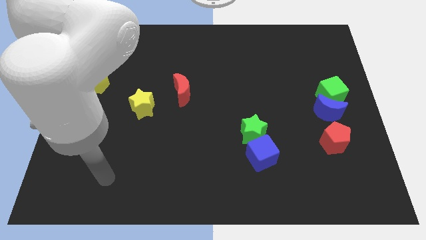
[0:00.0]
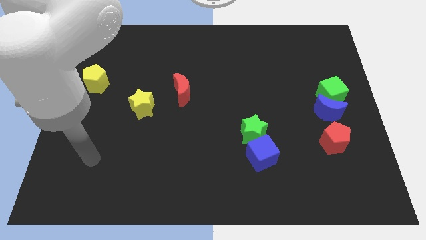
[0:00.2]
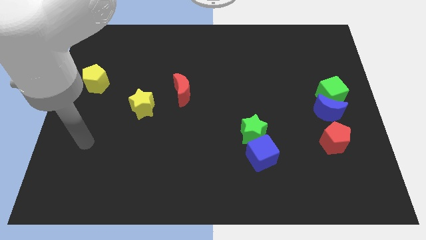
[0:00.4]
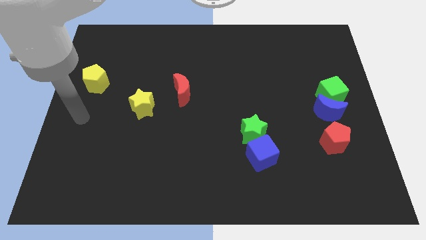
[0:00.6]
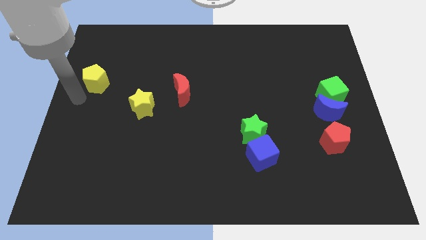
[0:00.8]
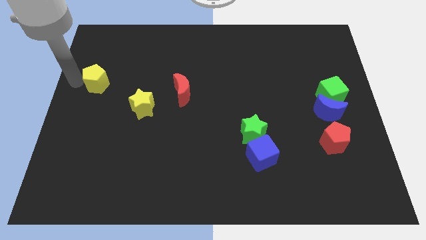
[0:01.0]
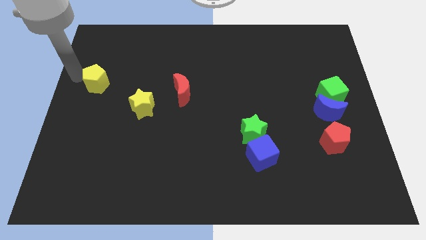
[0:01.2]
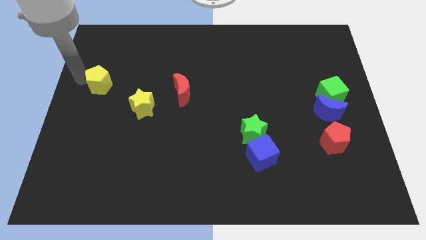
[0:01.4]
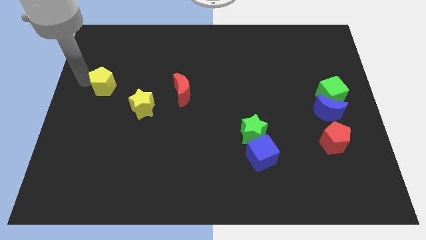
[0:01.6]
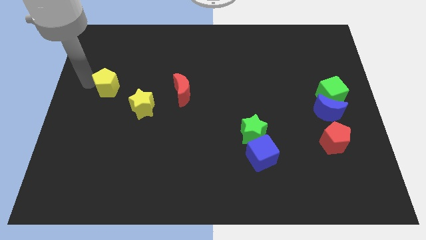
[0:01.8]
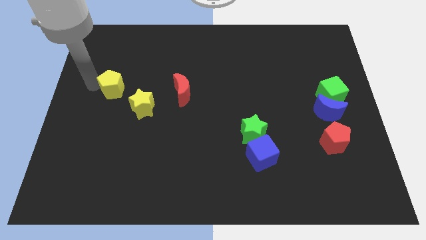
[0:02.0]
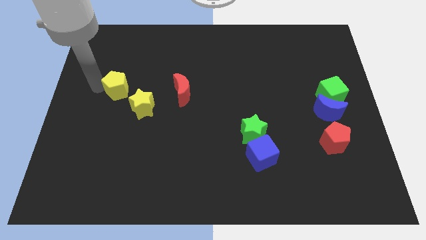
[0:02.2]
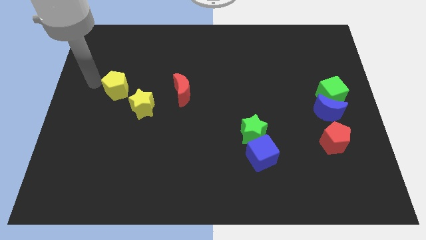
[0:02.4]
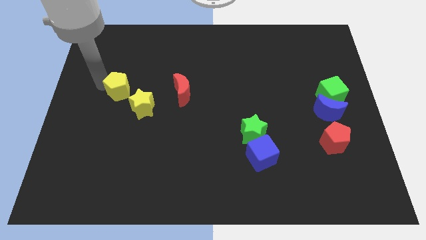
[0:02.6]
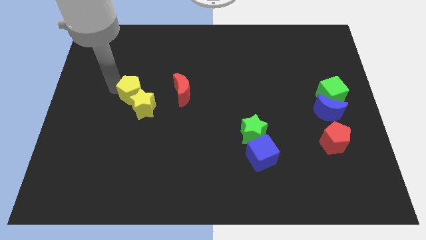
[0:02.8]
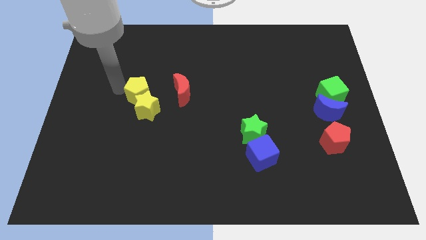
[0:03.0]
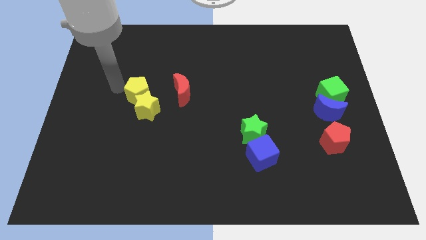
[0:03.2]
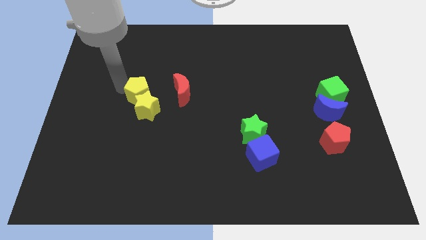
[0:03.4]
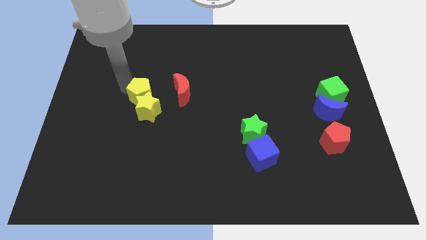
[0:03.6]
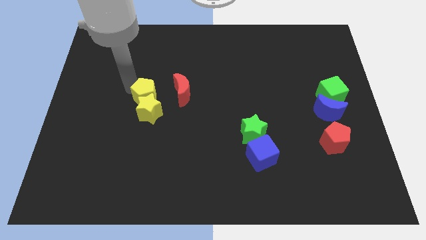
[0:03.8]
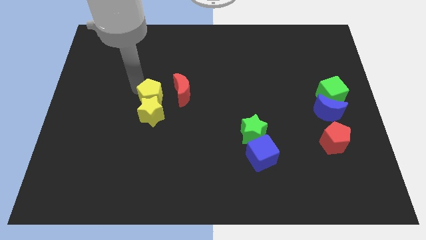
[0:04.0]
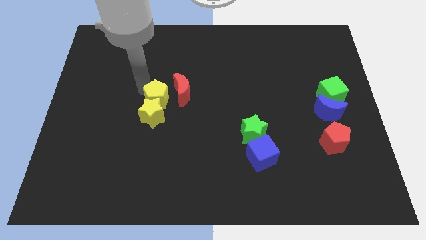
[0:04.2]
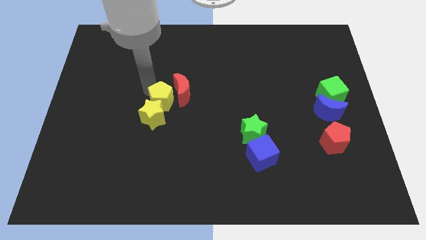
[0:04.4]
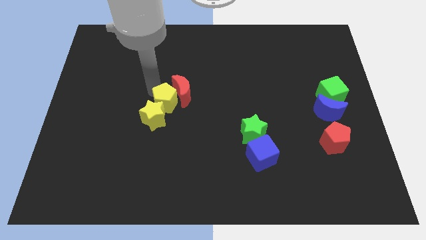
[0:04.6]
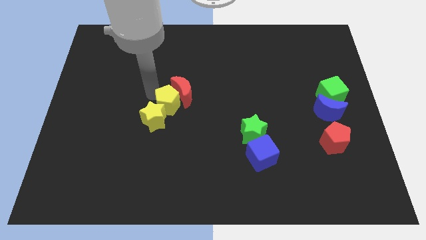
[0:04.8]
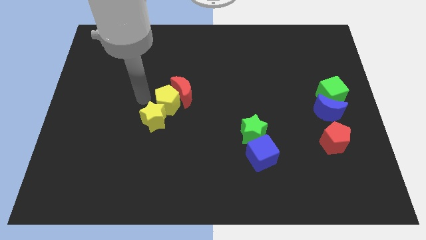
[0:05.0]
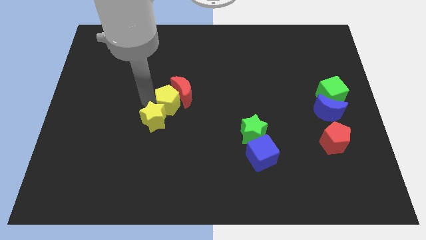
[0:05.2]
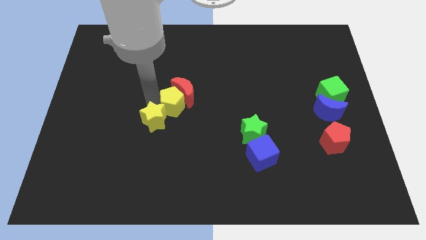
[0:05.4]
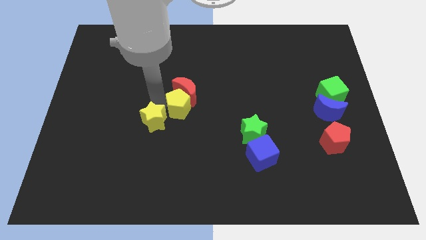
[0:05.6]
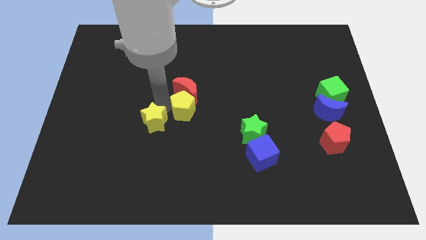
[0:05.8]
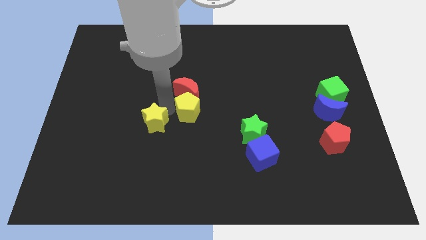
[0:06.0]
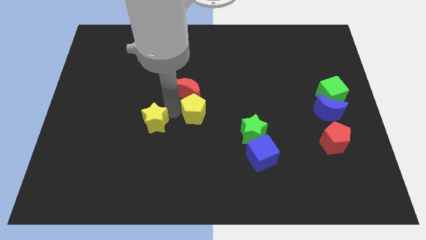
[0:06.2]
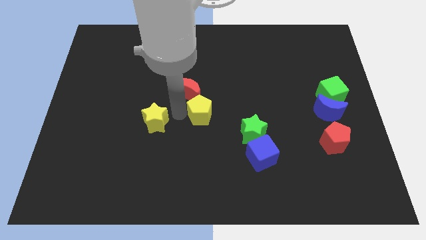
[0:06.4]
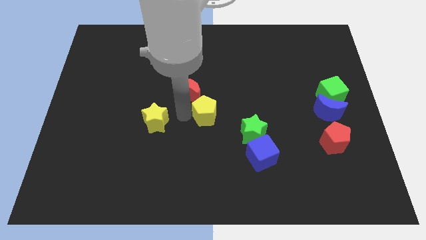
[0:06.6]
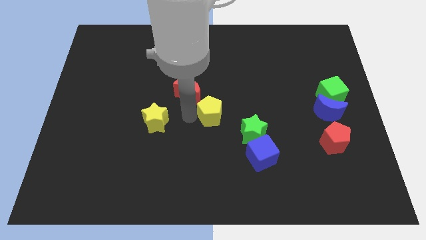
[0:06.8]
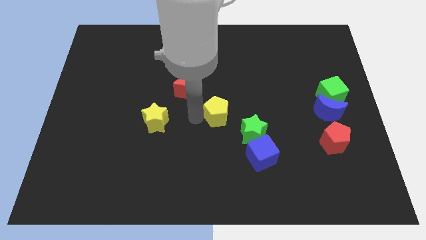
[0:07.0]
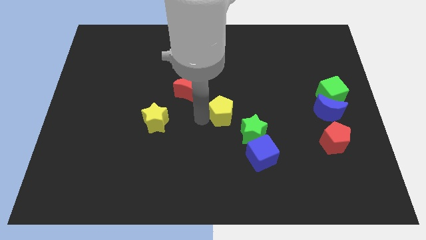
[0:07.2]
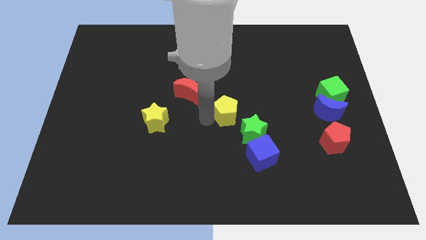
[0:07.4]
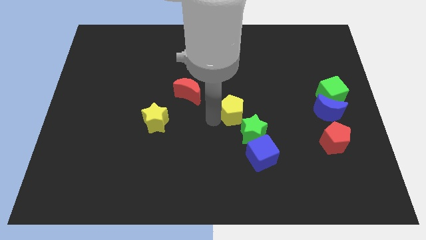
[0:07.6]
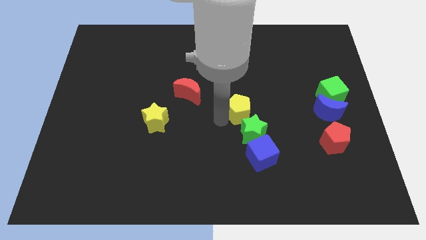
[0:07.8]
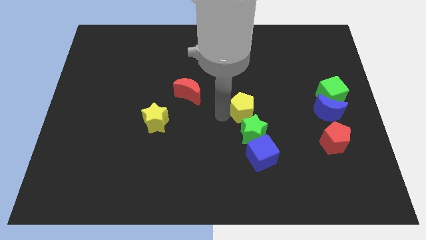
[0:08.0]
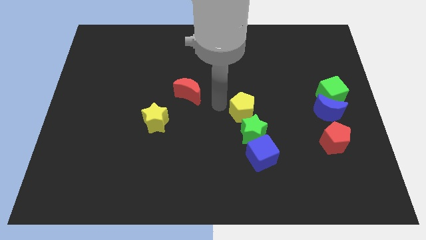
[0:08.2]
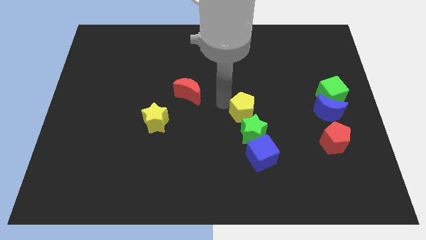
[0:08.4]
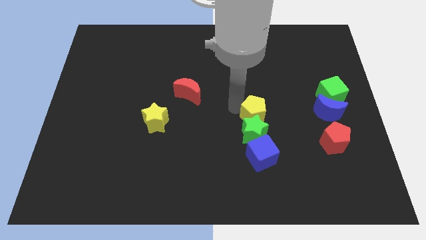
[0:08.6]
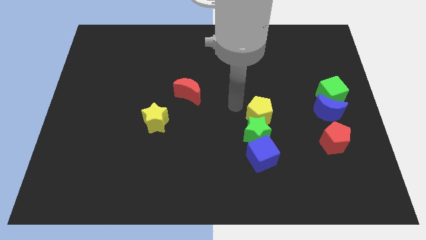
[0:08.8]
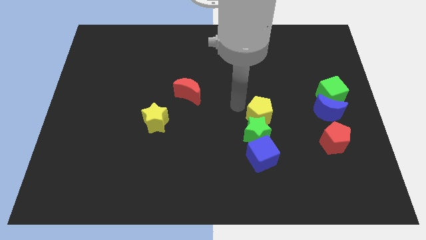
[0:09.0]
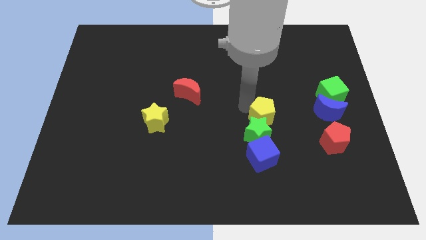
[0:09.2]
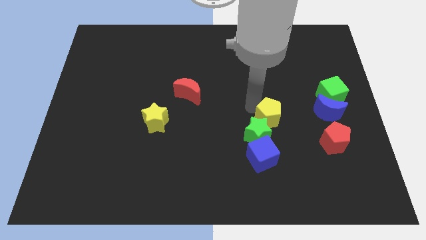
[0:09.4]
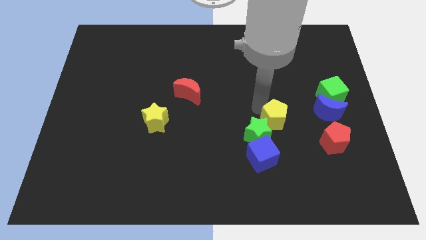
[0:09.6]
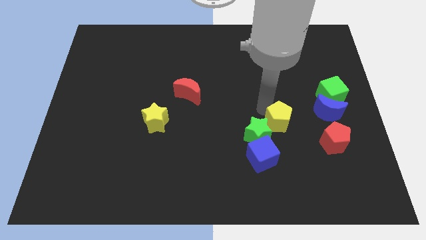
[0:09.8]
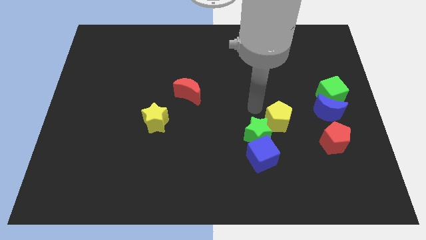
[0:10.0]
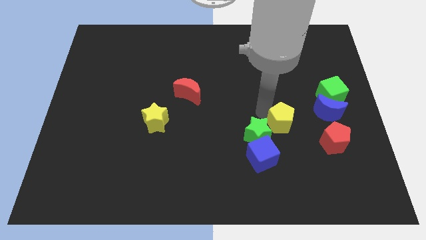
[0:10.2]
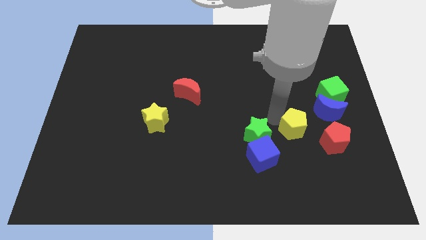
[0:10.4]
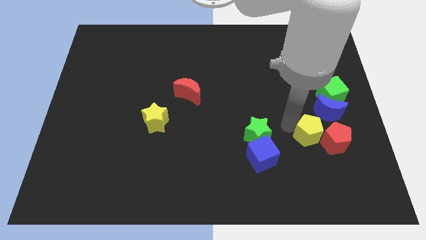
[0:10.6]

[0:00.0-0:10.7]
push the yellow pentagon to the red pentagon

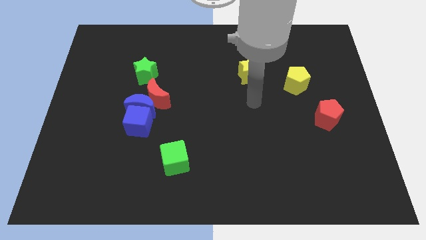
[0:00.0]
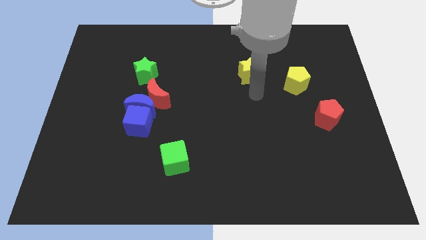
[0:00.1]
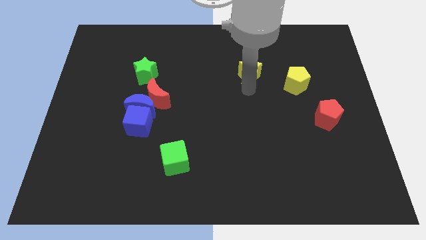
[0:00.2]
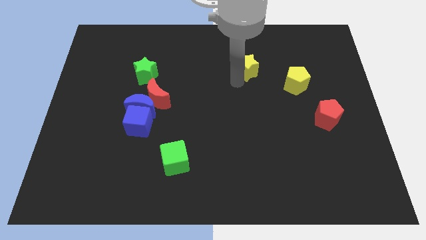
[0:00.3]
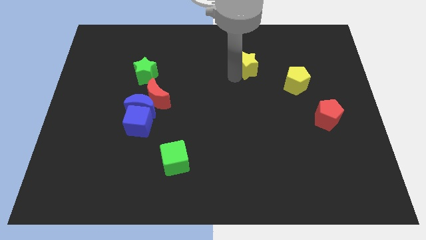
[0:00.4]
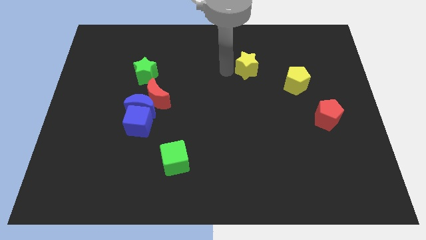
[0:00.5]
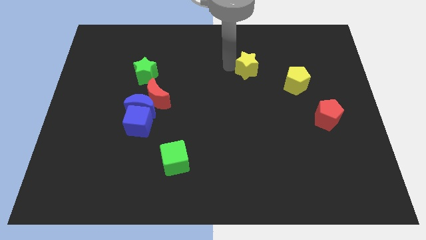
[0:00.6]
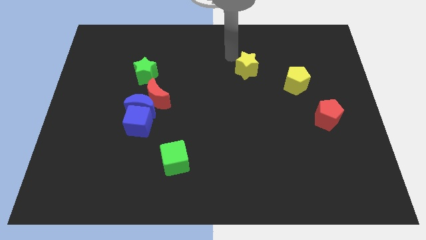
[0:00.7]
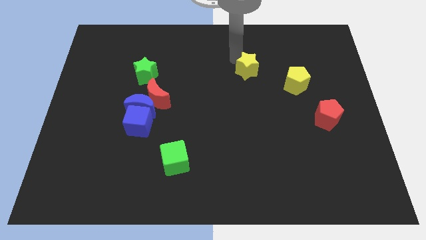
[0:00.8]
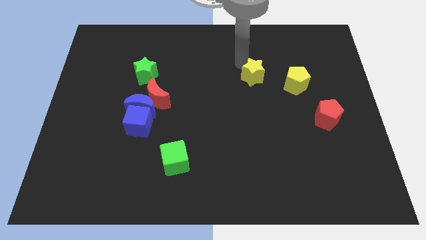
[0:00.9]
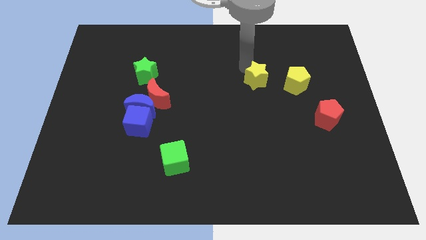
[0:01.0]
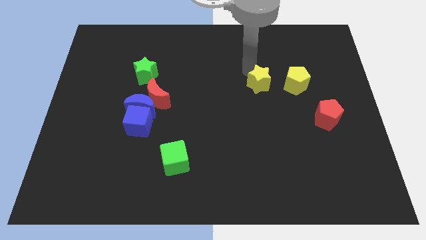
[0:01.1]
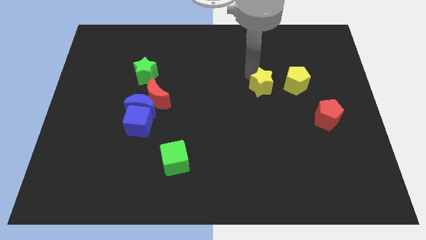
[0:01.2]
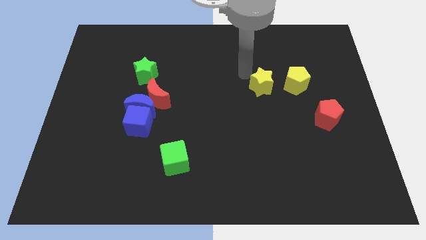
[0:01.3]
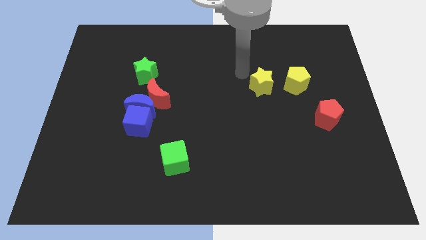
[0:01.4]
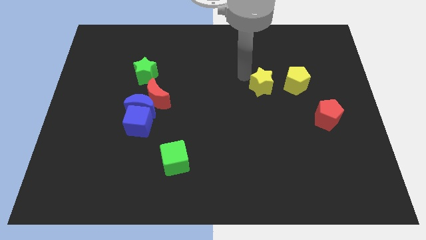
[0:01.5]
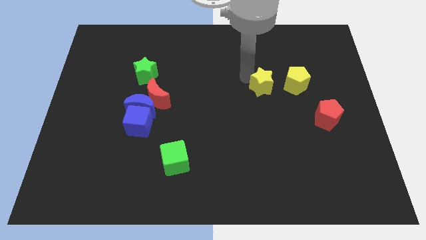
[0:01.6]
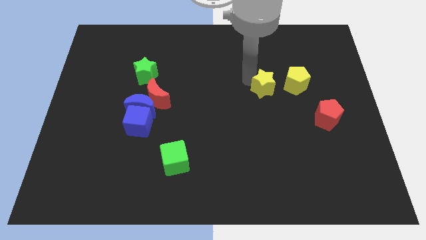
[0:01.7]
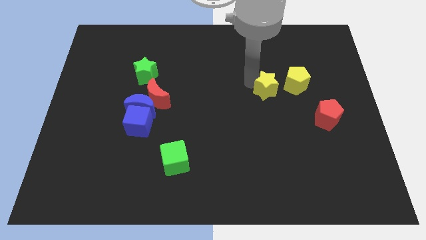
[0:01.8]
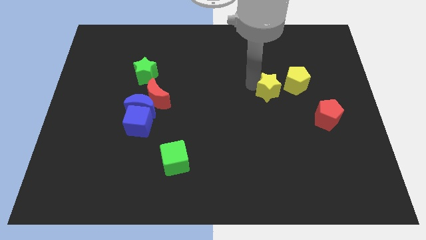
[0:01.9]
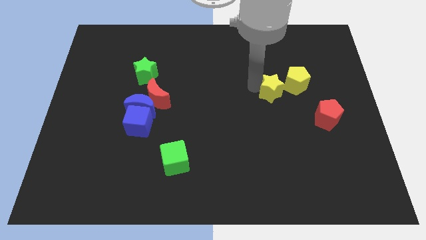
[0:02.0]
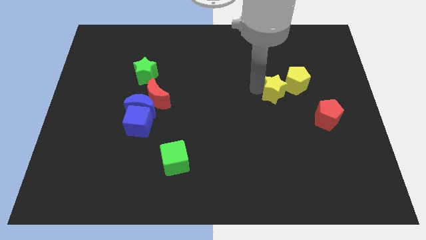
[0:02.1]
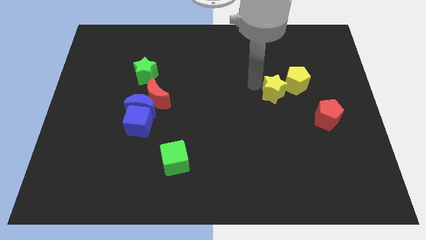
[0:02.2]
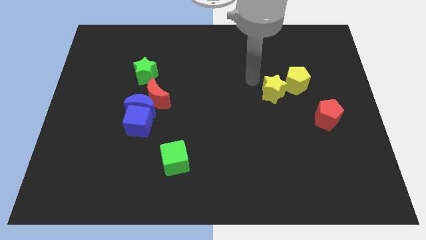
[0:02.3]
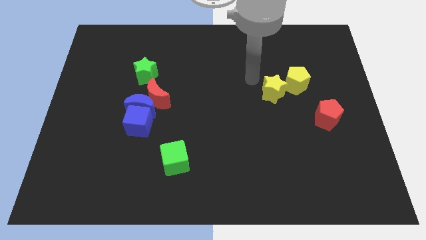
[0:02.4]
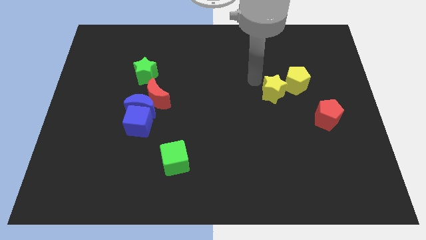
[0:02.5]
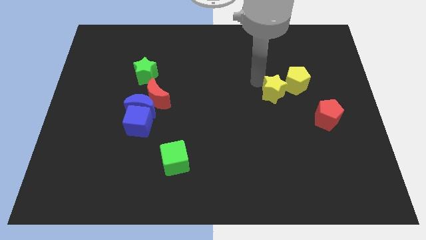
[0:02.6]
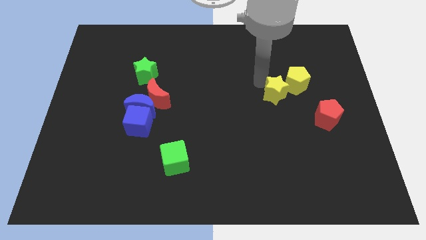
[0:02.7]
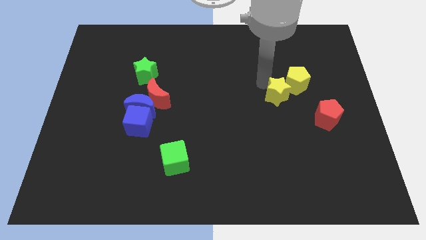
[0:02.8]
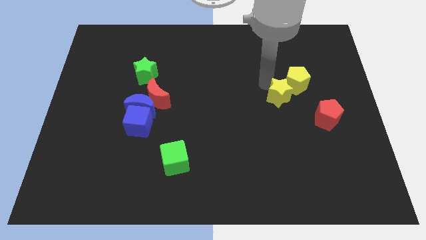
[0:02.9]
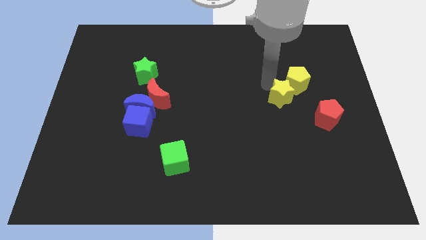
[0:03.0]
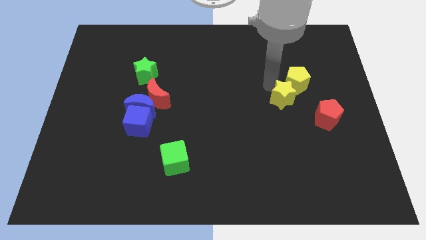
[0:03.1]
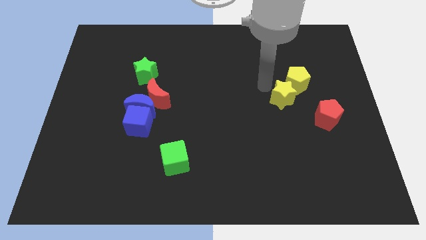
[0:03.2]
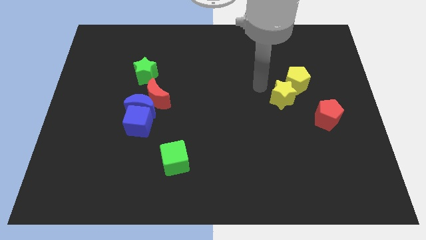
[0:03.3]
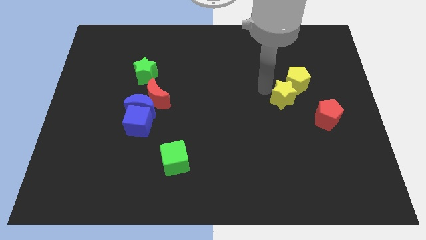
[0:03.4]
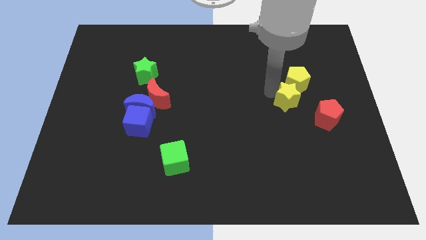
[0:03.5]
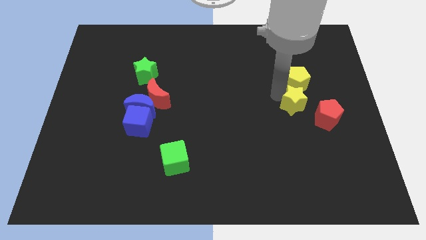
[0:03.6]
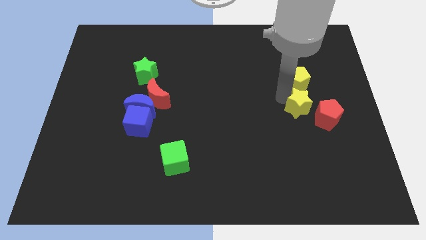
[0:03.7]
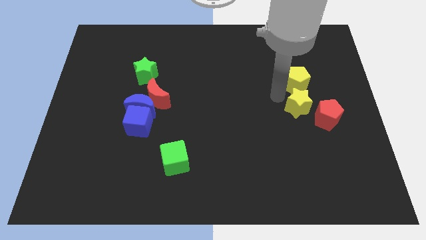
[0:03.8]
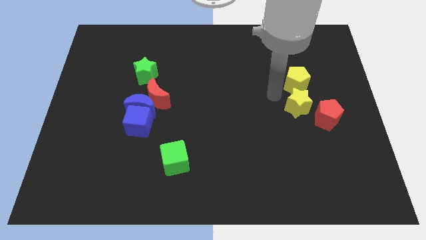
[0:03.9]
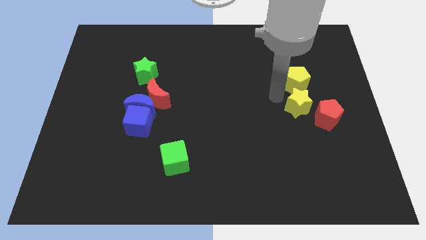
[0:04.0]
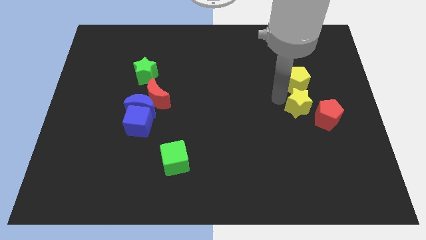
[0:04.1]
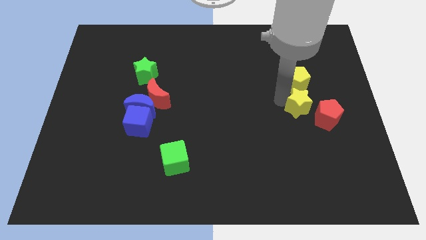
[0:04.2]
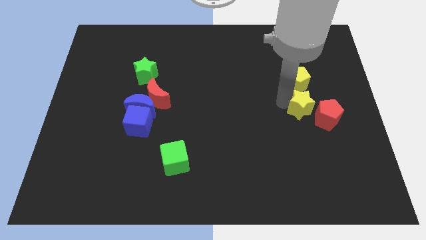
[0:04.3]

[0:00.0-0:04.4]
push the yellow star close to the red pentagon
